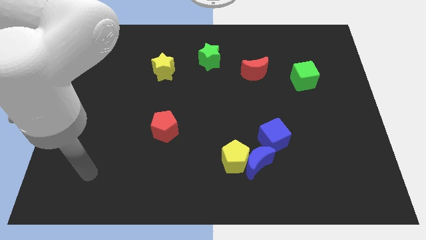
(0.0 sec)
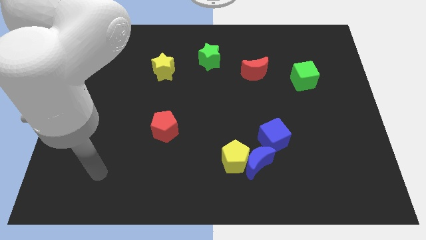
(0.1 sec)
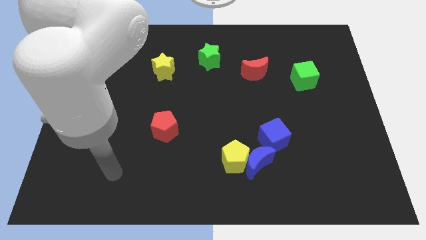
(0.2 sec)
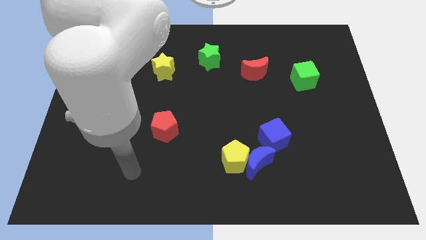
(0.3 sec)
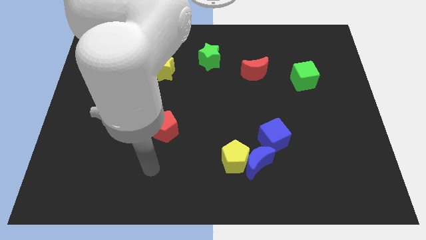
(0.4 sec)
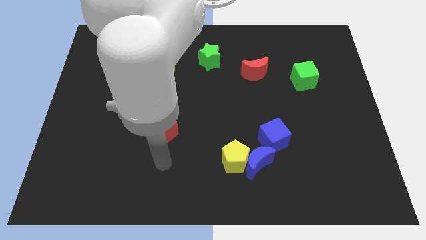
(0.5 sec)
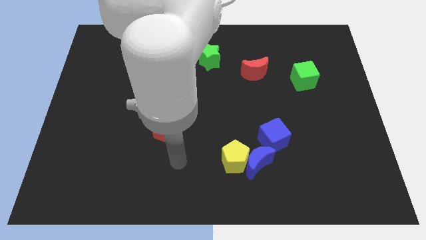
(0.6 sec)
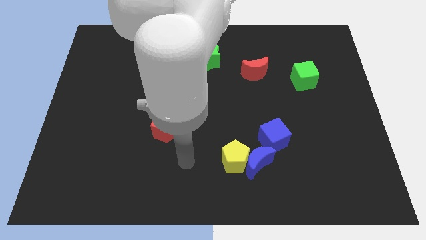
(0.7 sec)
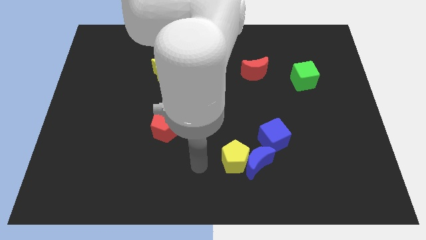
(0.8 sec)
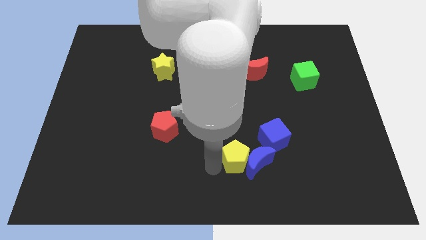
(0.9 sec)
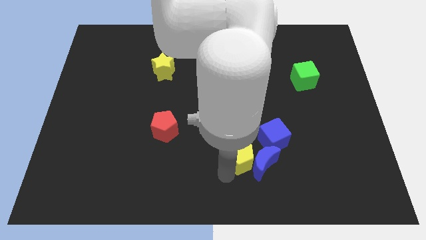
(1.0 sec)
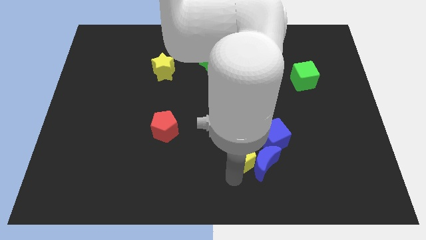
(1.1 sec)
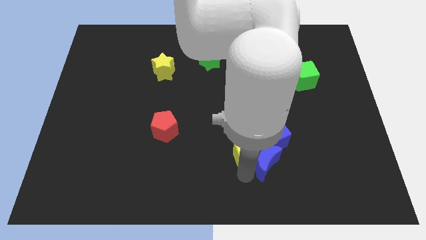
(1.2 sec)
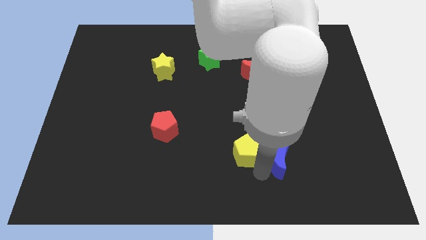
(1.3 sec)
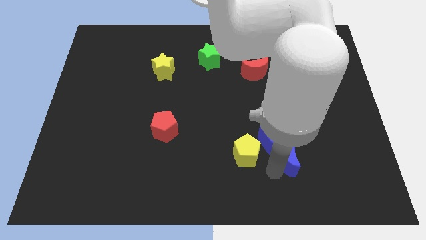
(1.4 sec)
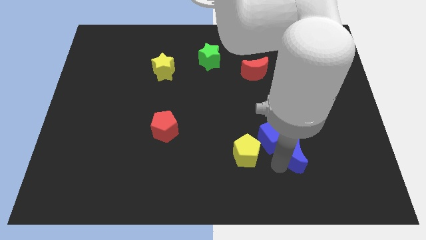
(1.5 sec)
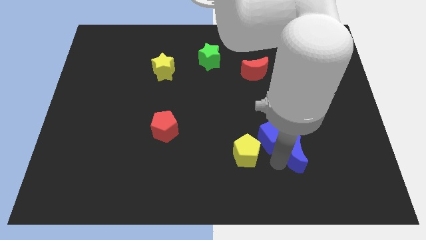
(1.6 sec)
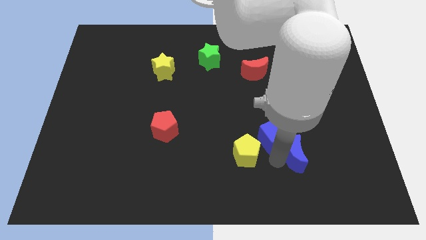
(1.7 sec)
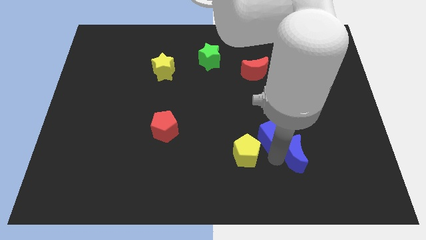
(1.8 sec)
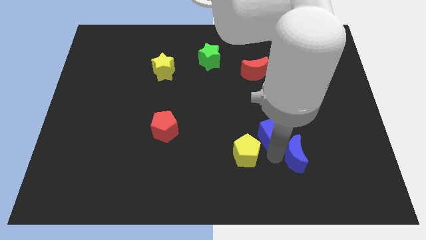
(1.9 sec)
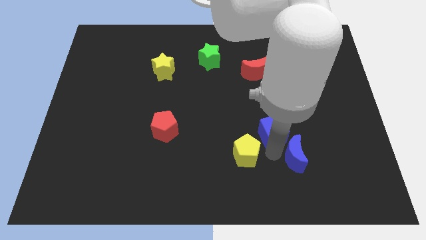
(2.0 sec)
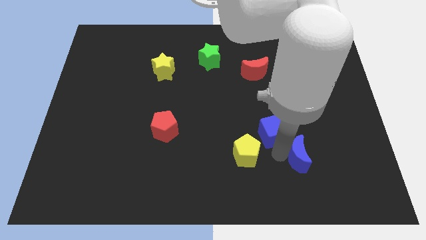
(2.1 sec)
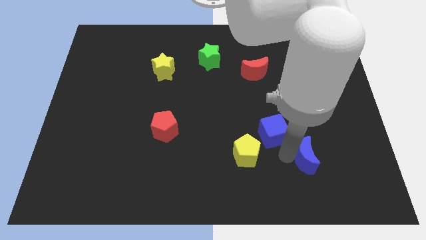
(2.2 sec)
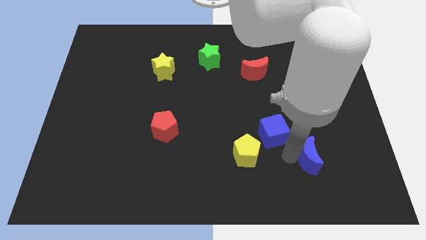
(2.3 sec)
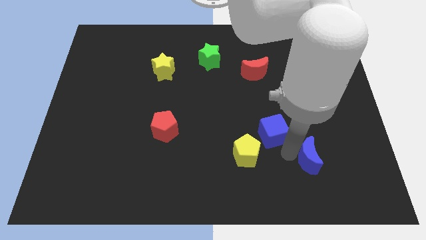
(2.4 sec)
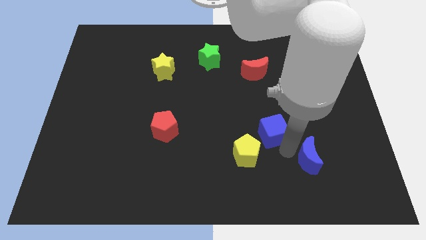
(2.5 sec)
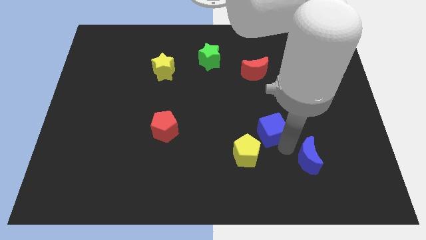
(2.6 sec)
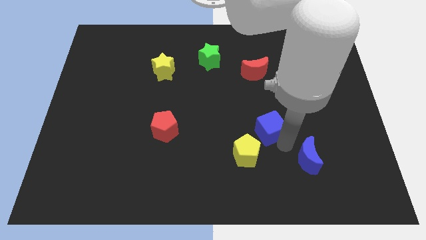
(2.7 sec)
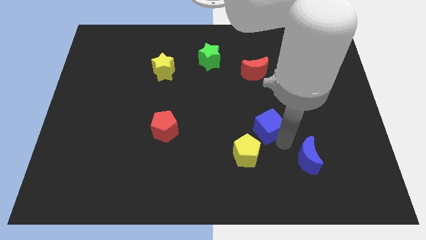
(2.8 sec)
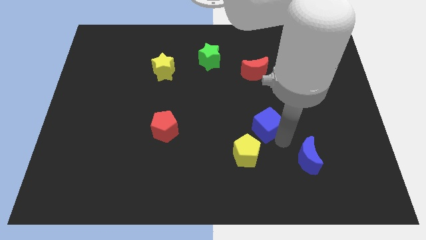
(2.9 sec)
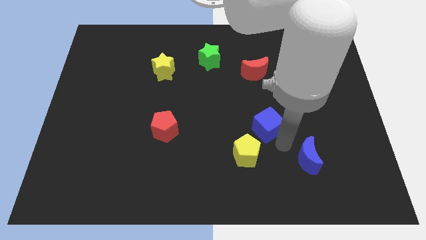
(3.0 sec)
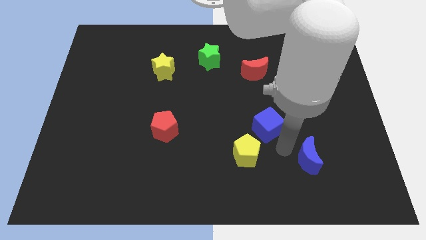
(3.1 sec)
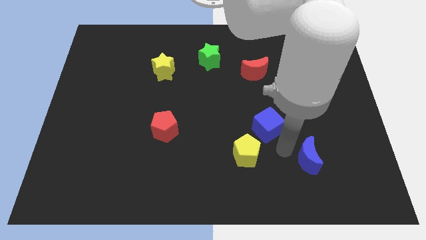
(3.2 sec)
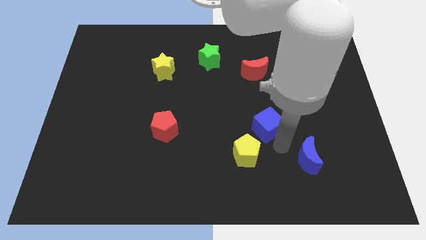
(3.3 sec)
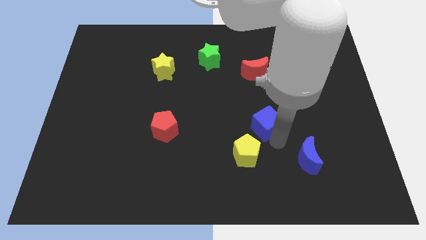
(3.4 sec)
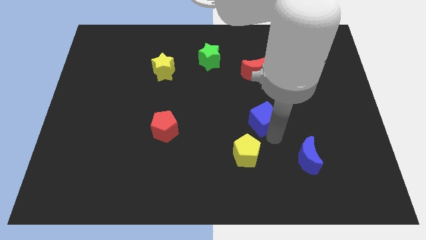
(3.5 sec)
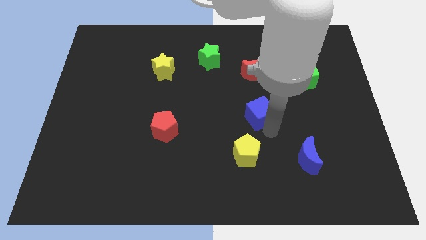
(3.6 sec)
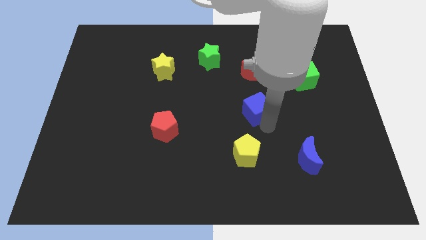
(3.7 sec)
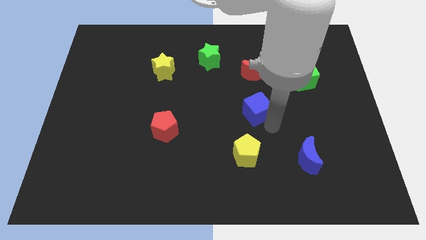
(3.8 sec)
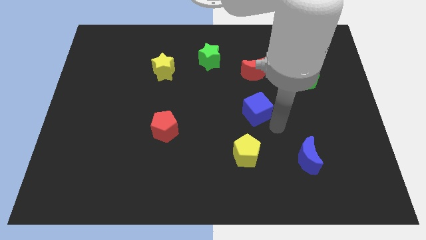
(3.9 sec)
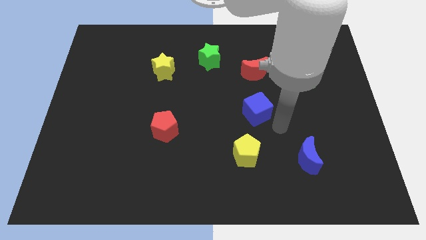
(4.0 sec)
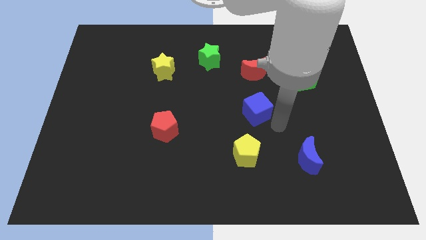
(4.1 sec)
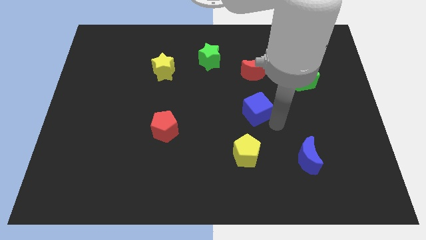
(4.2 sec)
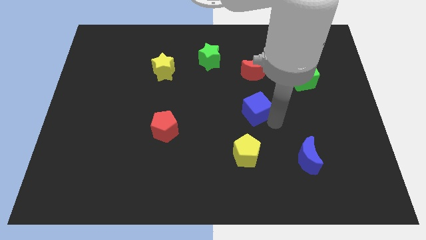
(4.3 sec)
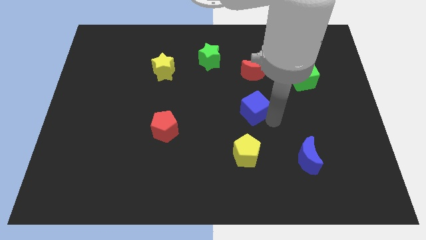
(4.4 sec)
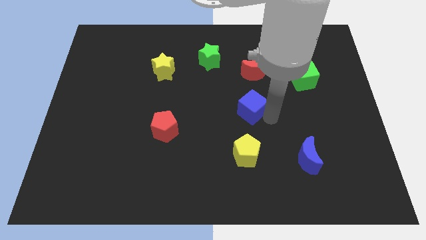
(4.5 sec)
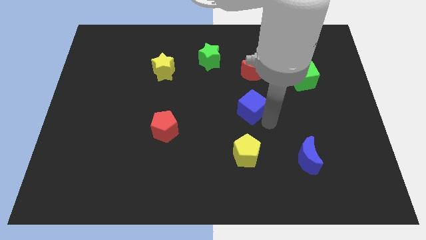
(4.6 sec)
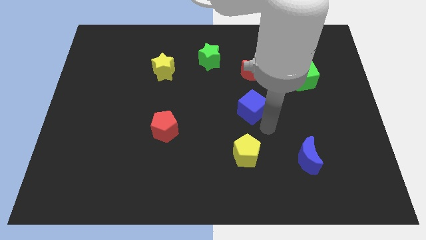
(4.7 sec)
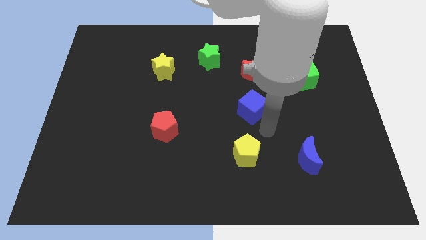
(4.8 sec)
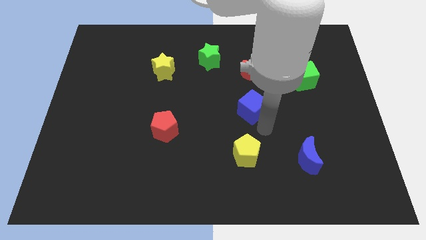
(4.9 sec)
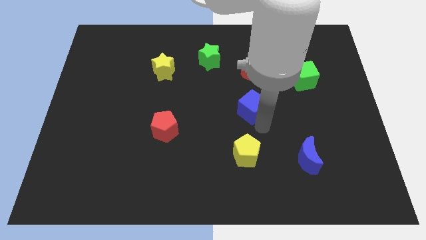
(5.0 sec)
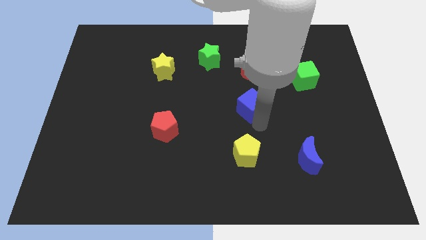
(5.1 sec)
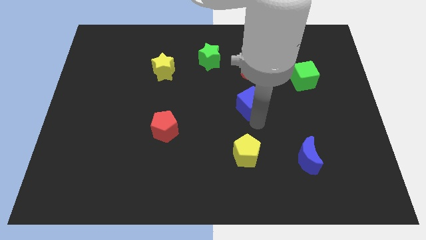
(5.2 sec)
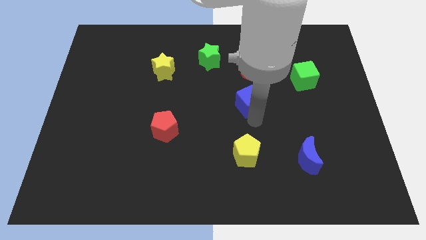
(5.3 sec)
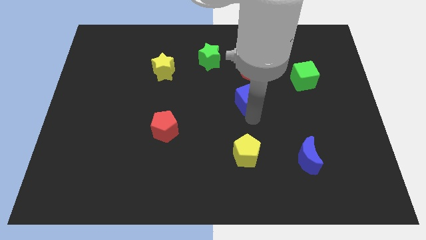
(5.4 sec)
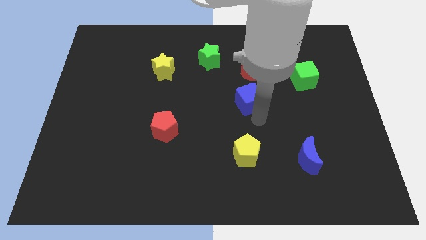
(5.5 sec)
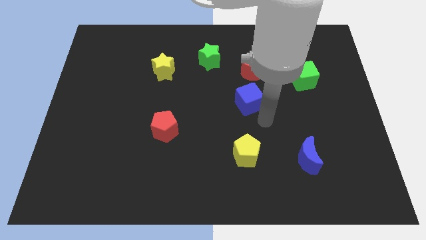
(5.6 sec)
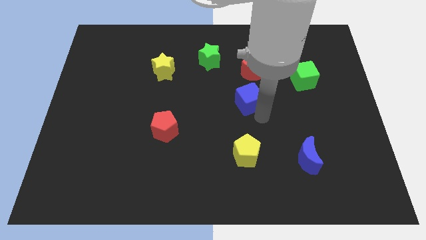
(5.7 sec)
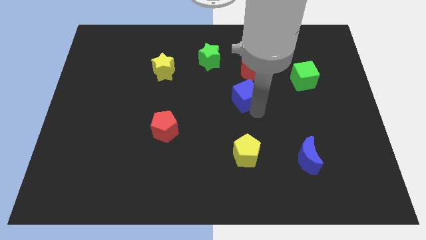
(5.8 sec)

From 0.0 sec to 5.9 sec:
slide the blue cube diagonally down and to the left of the red moon

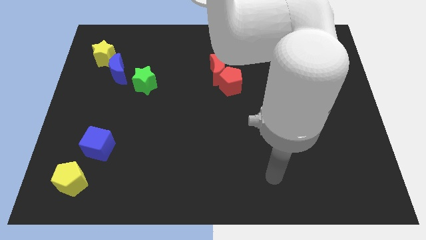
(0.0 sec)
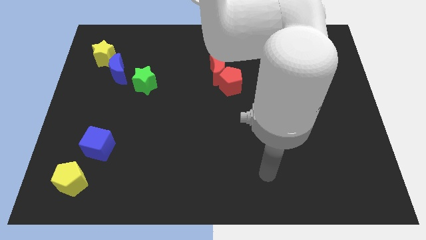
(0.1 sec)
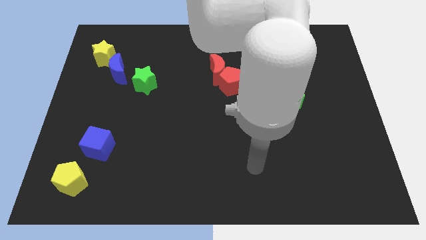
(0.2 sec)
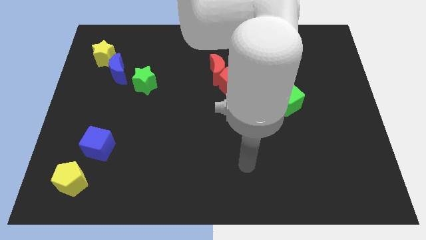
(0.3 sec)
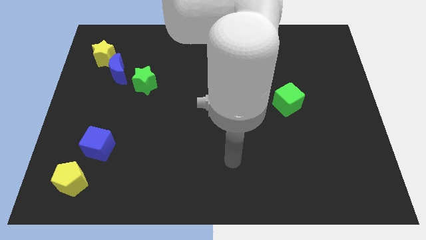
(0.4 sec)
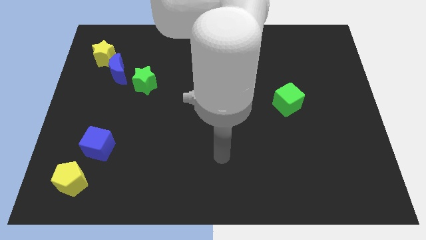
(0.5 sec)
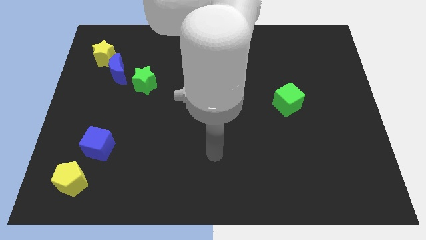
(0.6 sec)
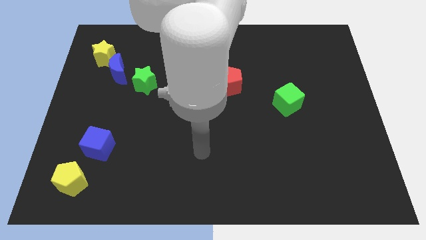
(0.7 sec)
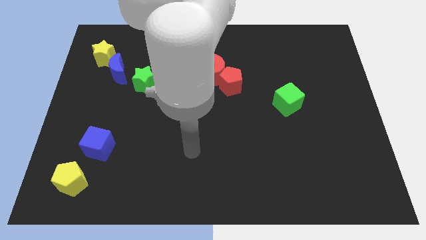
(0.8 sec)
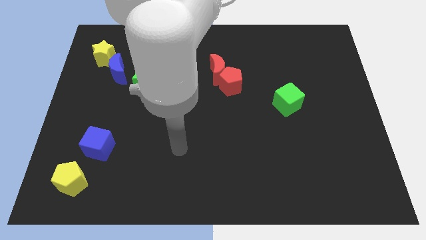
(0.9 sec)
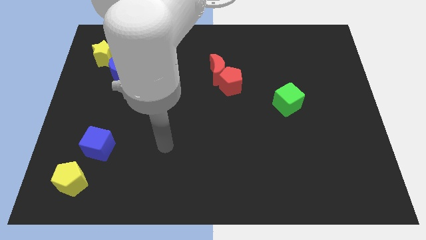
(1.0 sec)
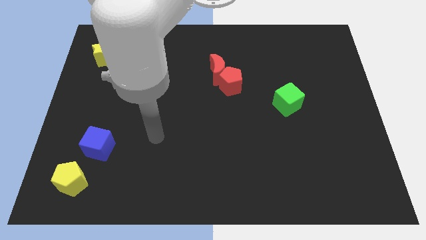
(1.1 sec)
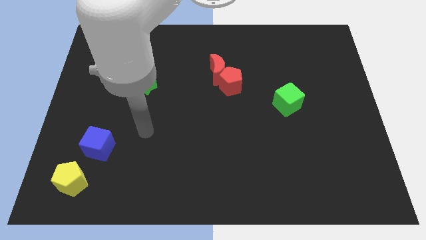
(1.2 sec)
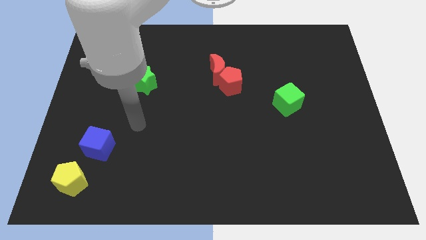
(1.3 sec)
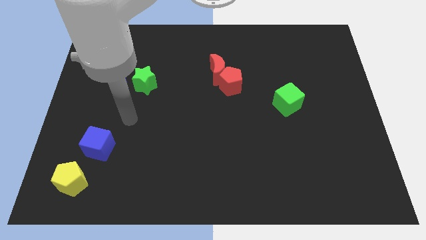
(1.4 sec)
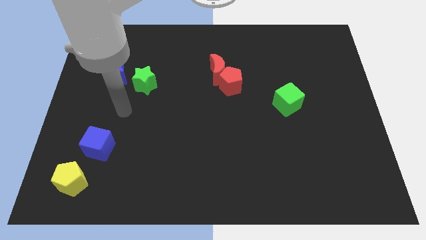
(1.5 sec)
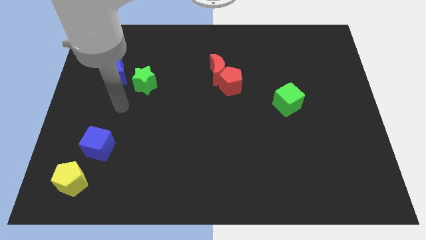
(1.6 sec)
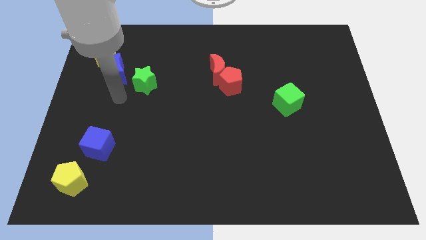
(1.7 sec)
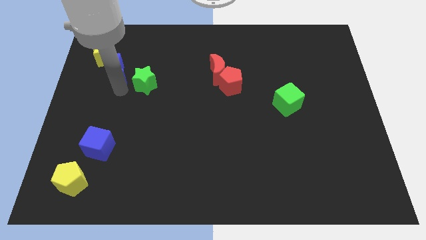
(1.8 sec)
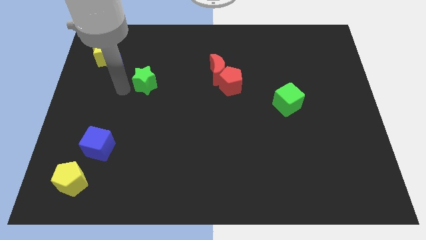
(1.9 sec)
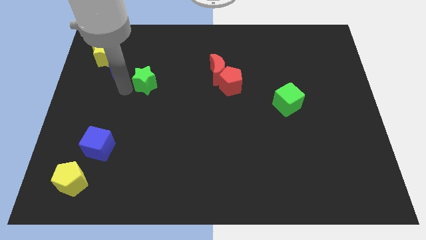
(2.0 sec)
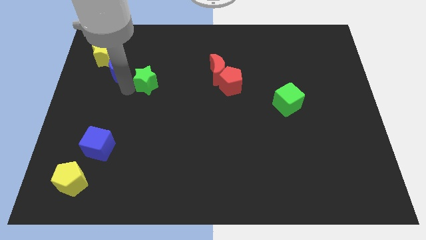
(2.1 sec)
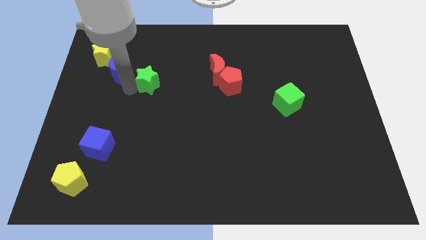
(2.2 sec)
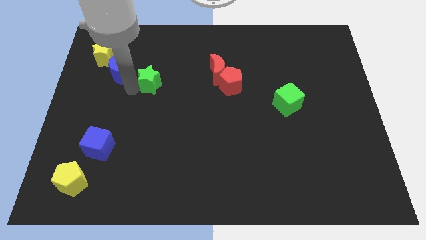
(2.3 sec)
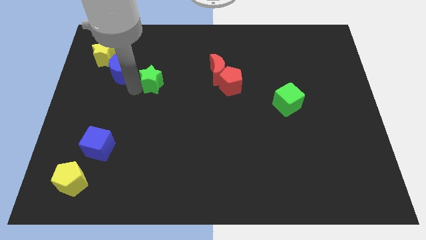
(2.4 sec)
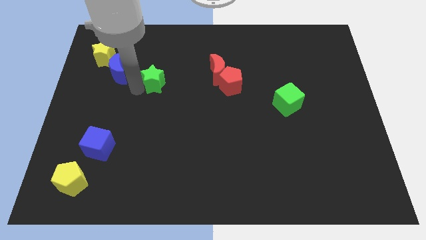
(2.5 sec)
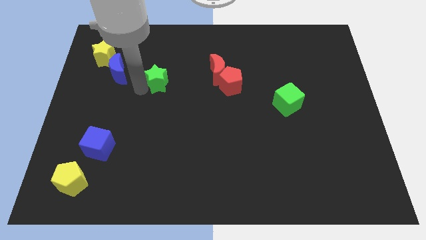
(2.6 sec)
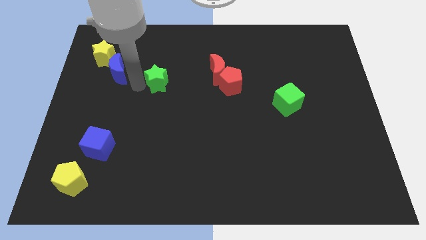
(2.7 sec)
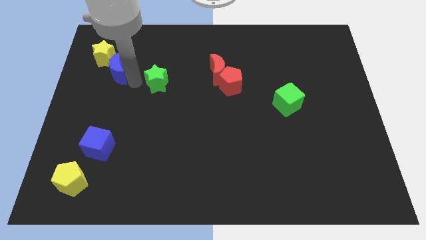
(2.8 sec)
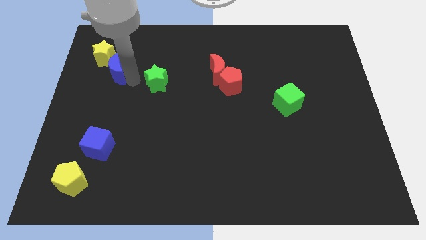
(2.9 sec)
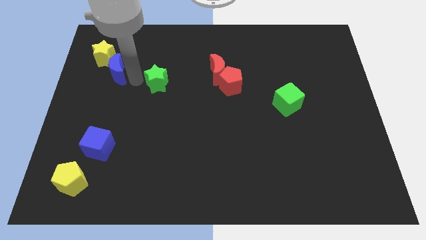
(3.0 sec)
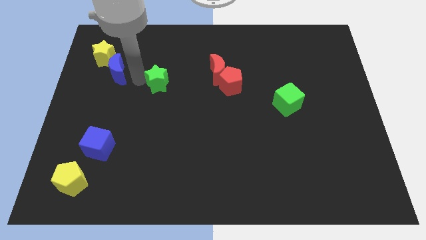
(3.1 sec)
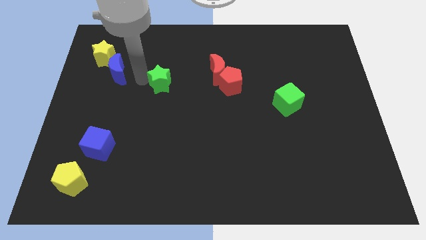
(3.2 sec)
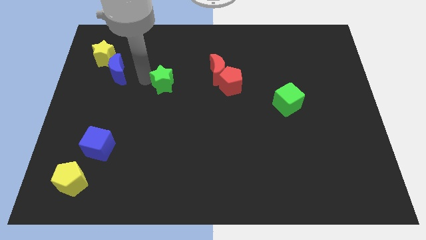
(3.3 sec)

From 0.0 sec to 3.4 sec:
slide the green star just left of the red pentagon
